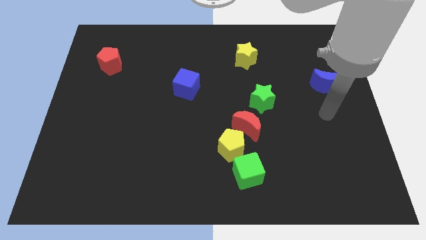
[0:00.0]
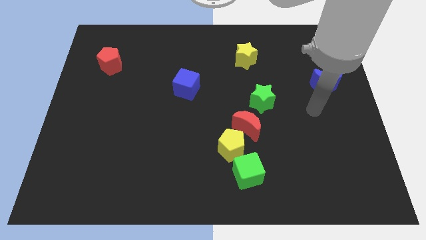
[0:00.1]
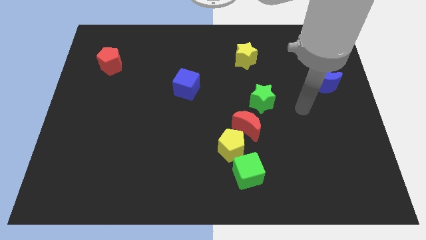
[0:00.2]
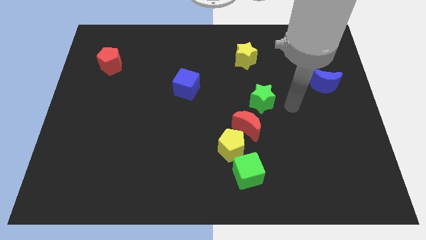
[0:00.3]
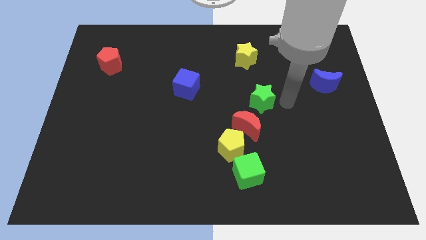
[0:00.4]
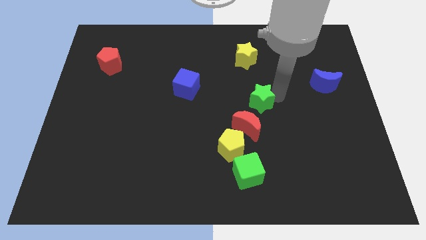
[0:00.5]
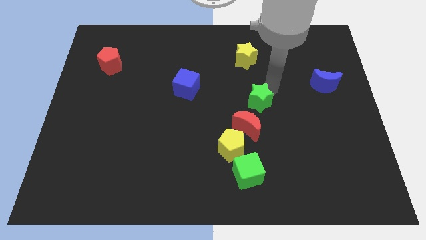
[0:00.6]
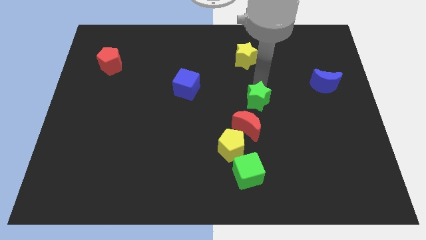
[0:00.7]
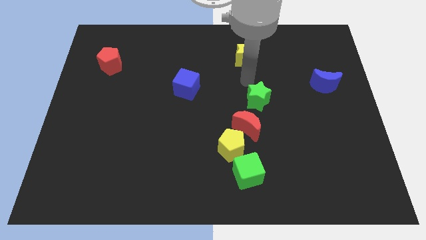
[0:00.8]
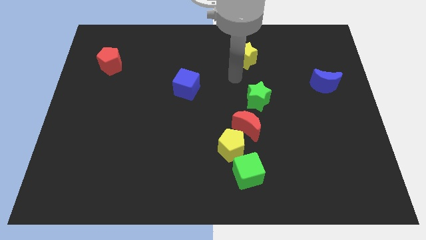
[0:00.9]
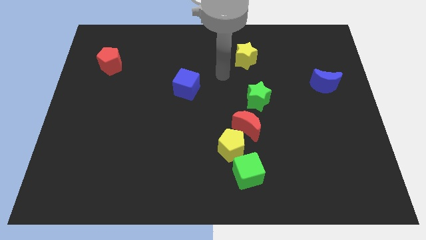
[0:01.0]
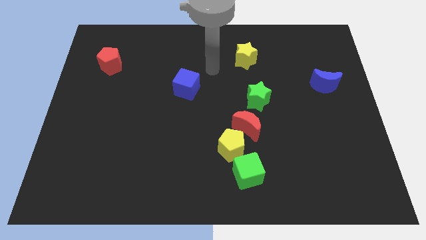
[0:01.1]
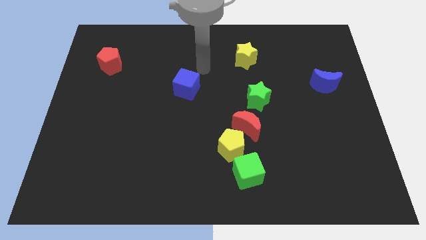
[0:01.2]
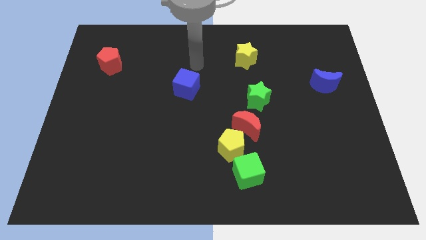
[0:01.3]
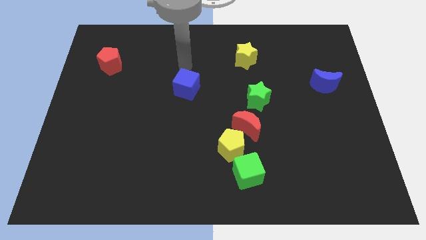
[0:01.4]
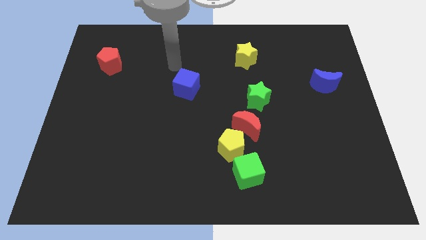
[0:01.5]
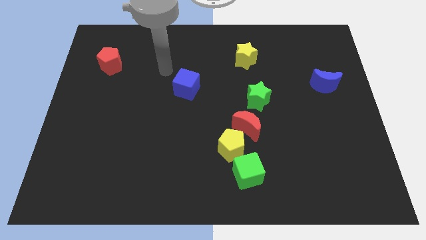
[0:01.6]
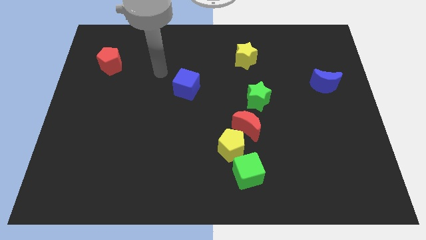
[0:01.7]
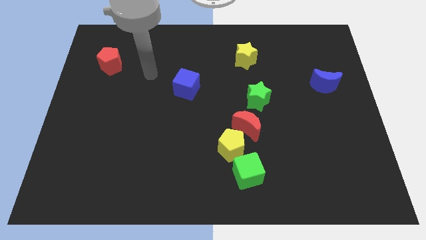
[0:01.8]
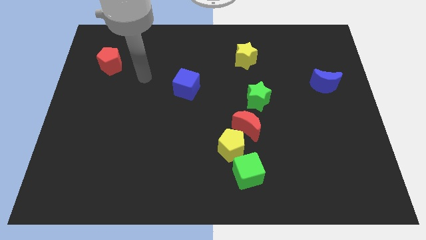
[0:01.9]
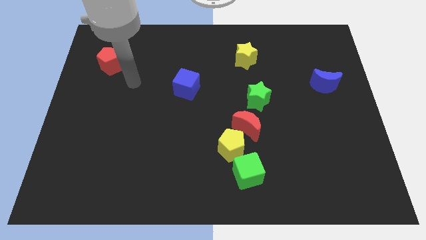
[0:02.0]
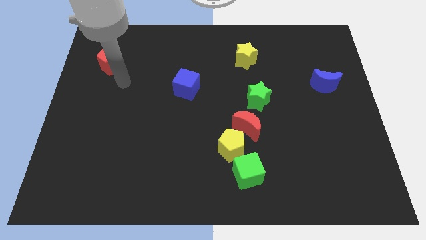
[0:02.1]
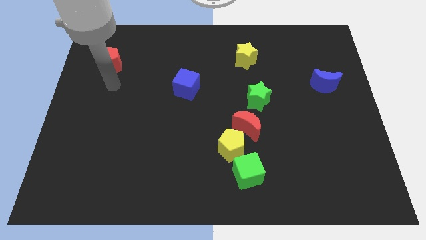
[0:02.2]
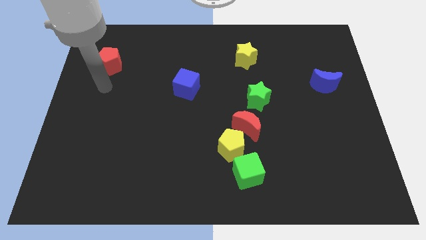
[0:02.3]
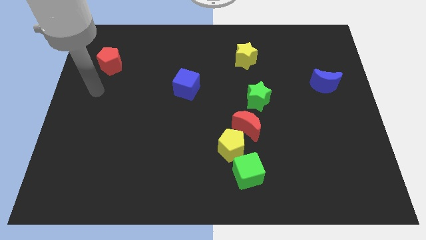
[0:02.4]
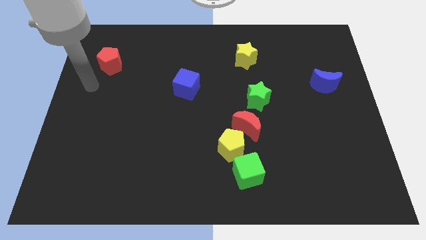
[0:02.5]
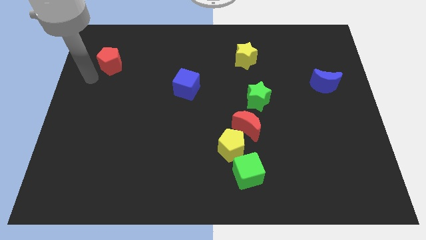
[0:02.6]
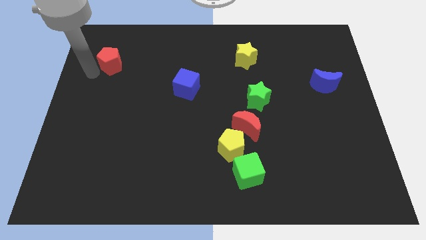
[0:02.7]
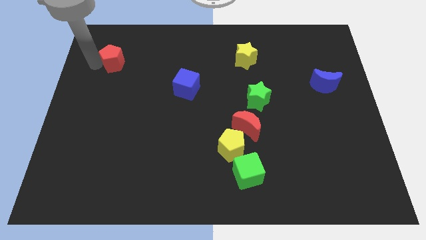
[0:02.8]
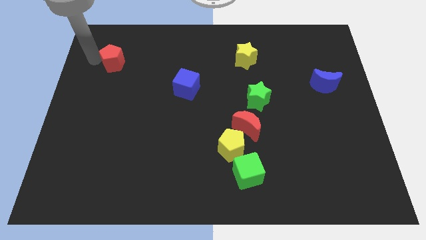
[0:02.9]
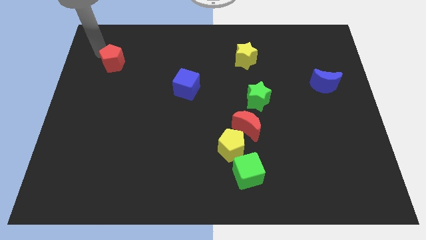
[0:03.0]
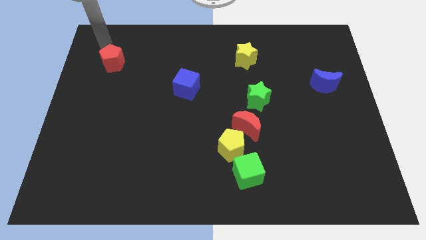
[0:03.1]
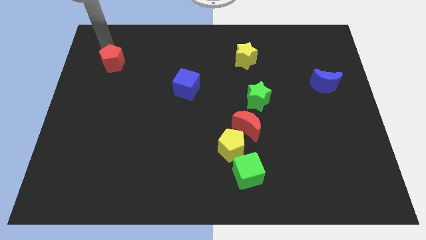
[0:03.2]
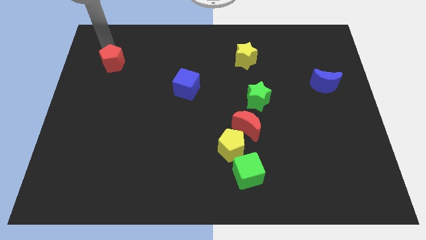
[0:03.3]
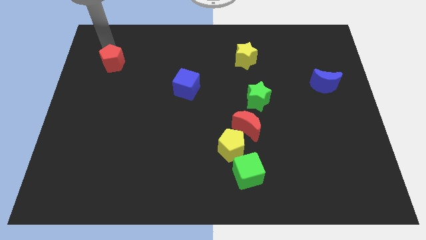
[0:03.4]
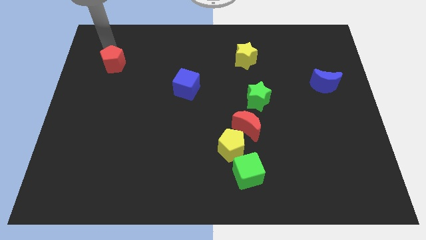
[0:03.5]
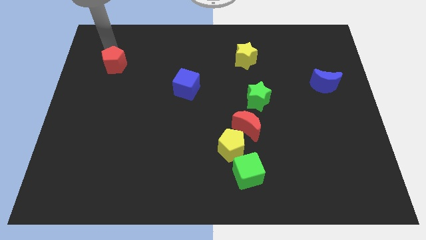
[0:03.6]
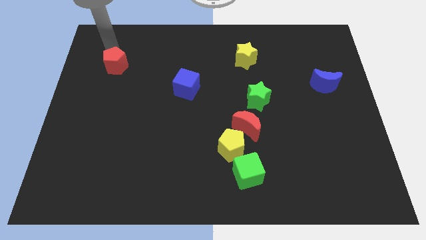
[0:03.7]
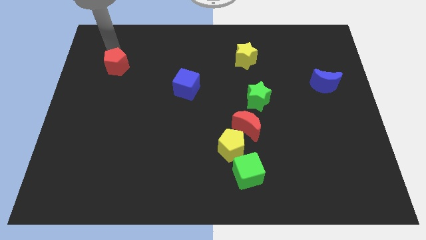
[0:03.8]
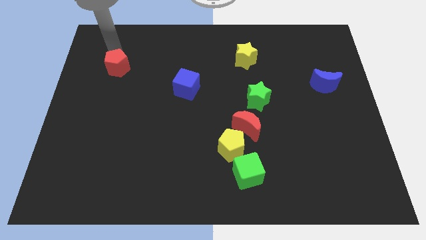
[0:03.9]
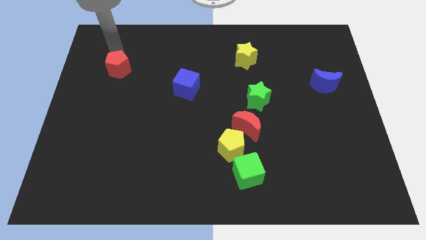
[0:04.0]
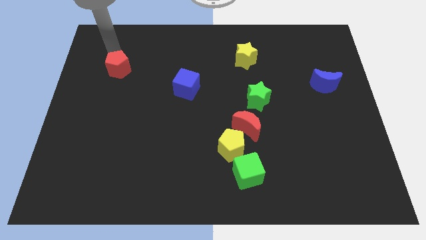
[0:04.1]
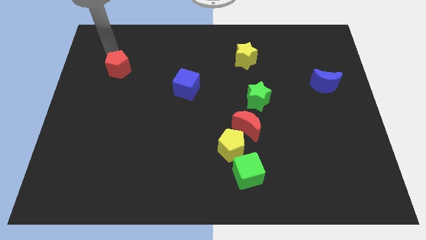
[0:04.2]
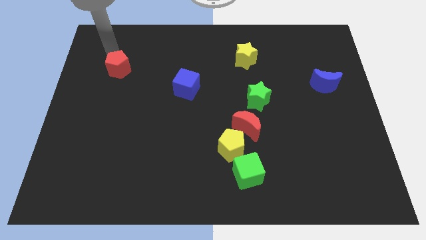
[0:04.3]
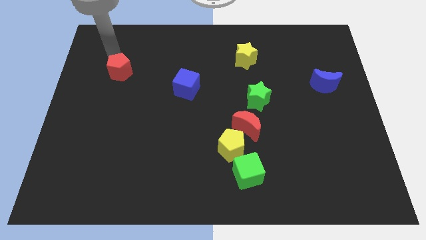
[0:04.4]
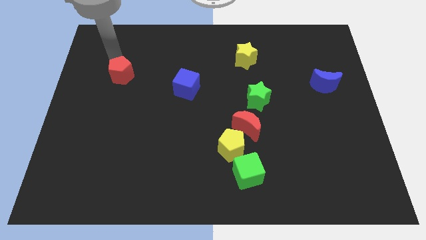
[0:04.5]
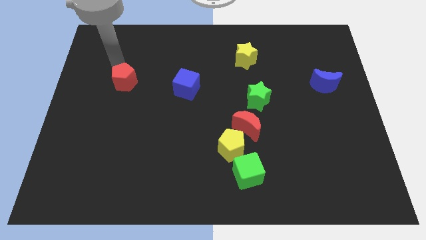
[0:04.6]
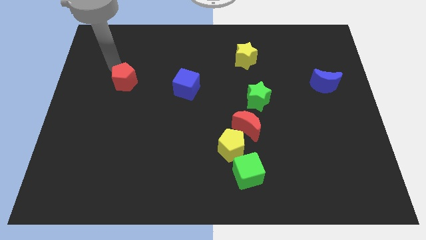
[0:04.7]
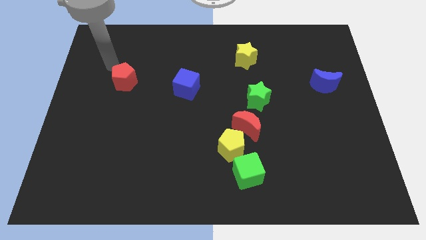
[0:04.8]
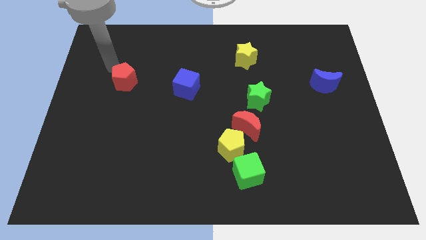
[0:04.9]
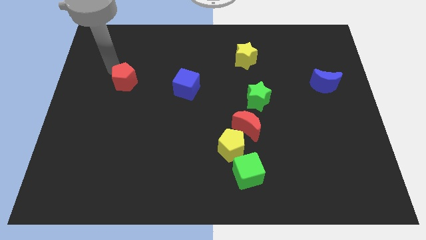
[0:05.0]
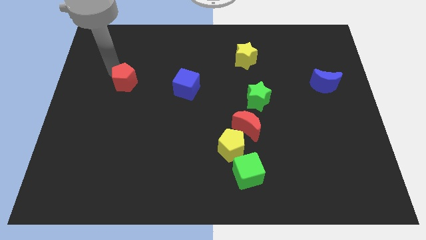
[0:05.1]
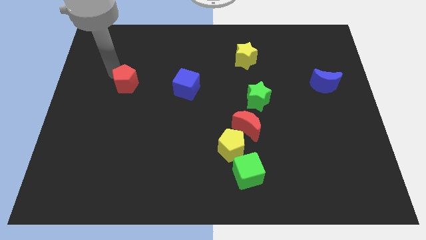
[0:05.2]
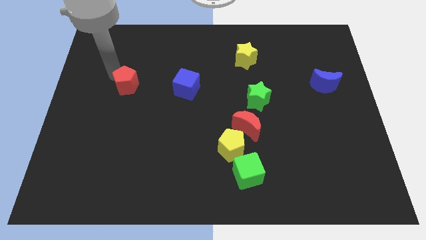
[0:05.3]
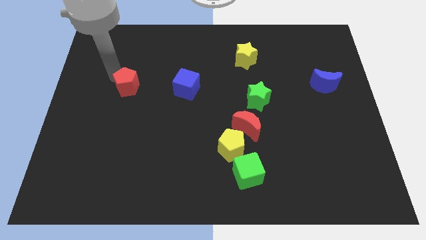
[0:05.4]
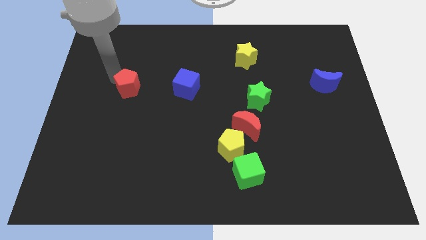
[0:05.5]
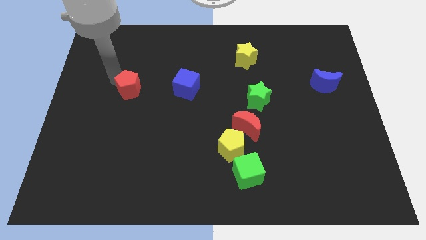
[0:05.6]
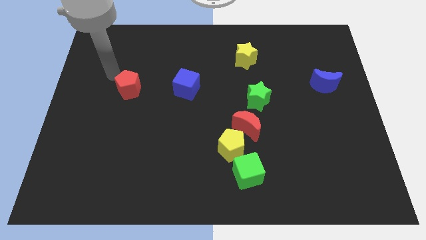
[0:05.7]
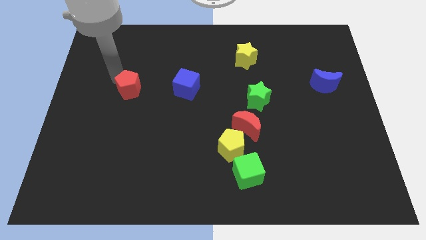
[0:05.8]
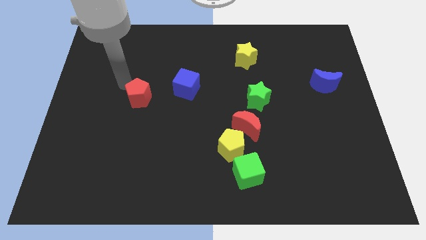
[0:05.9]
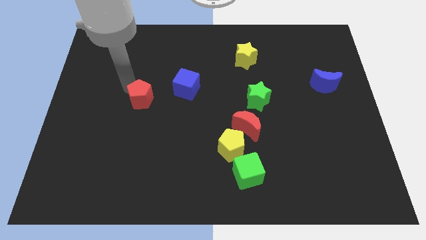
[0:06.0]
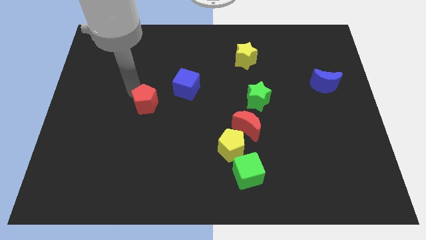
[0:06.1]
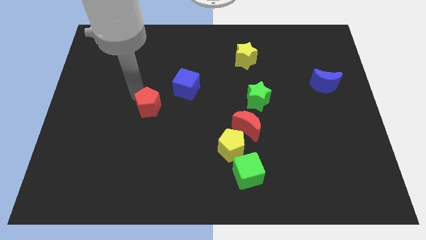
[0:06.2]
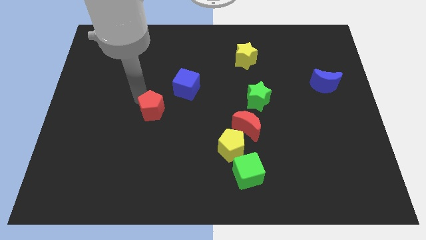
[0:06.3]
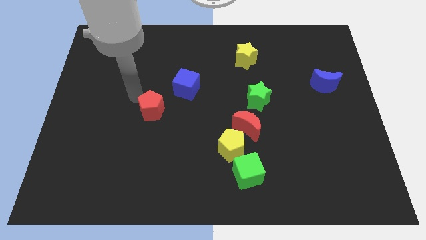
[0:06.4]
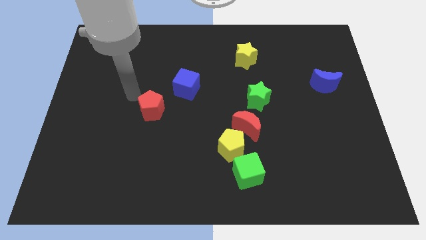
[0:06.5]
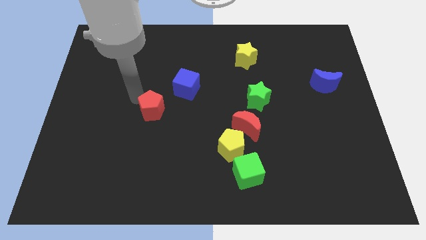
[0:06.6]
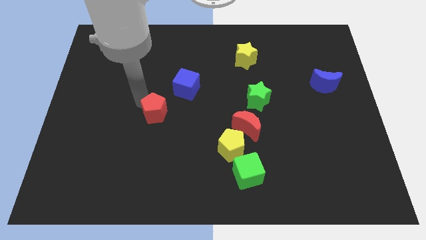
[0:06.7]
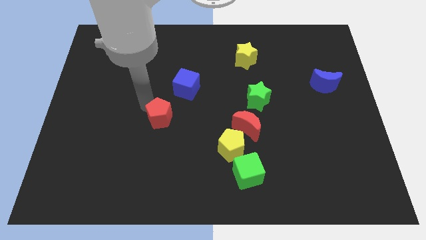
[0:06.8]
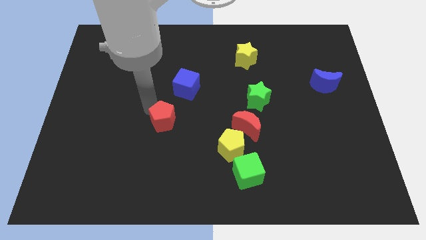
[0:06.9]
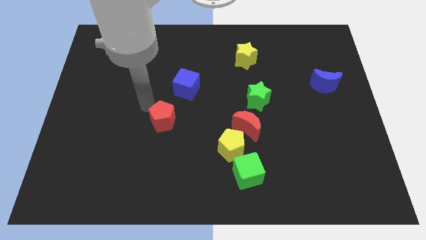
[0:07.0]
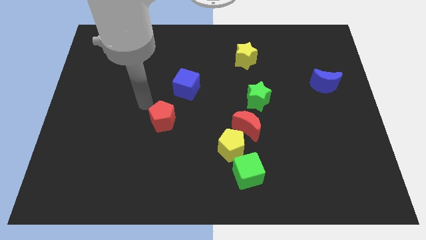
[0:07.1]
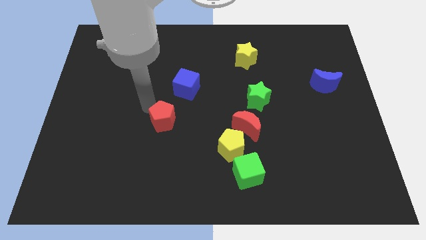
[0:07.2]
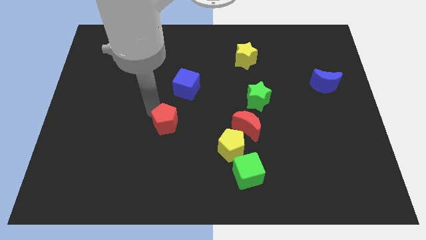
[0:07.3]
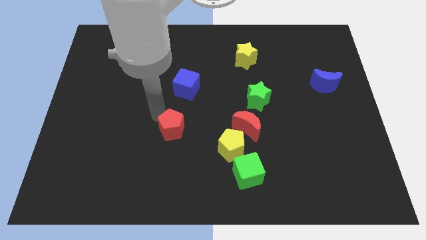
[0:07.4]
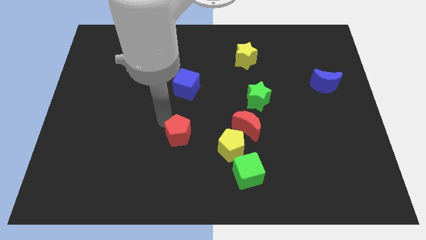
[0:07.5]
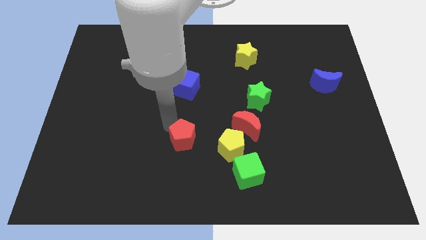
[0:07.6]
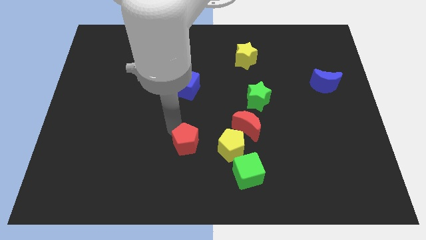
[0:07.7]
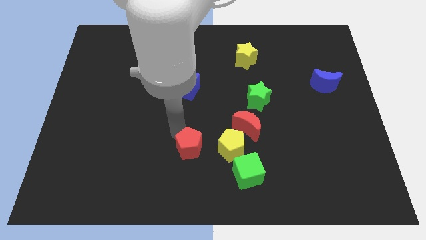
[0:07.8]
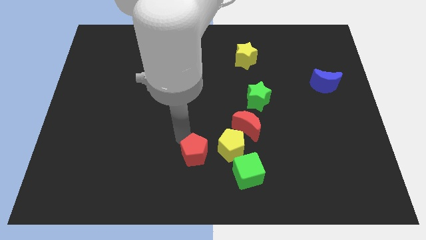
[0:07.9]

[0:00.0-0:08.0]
push the red pentagon to the bottom left of the yellow pentagon

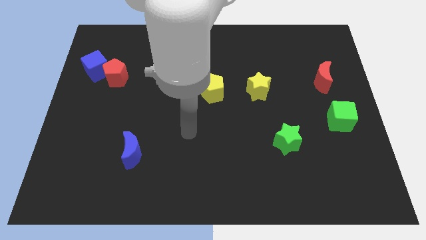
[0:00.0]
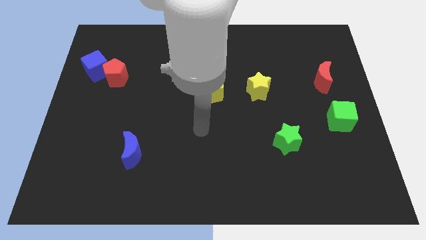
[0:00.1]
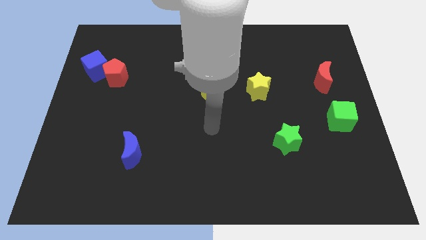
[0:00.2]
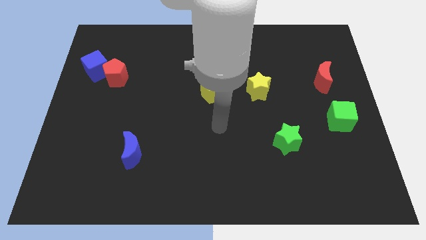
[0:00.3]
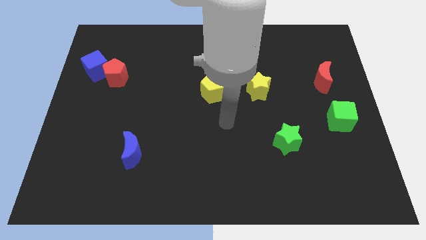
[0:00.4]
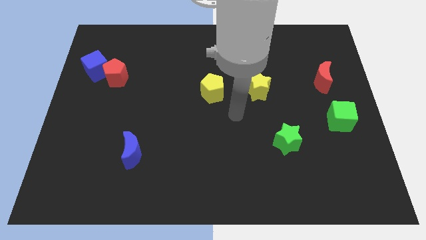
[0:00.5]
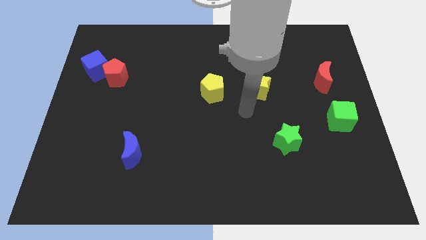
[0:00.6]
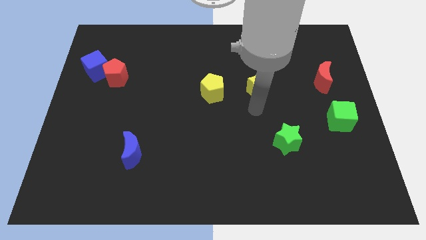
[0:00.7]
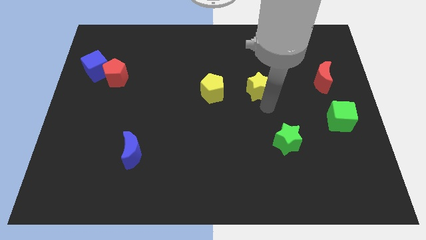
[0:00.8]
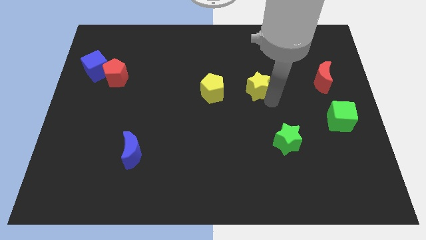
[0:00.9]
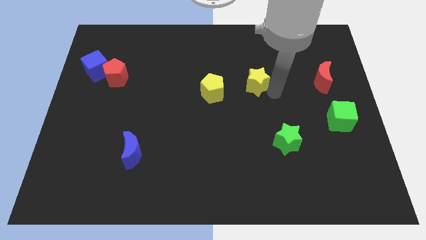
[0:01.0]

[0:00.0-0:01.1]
put the red moon right of the yellow star
